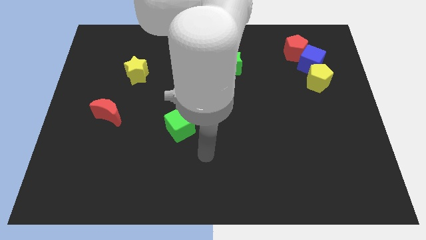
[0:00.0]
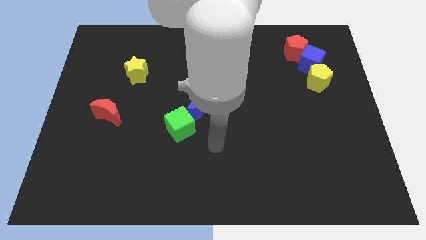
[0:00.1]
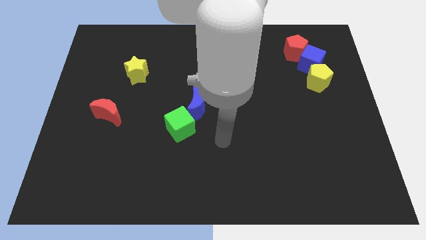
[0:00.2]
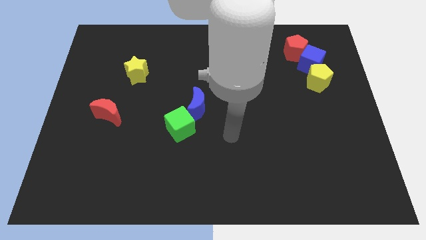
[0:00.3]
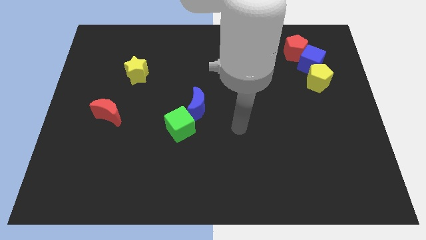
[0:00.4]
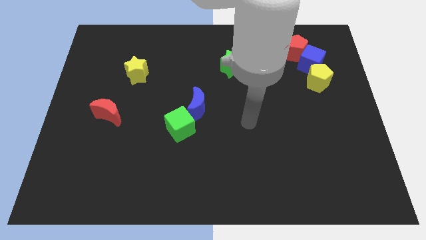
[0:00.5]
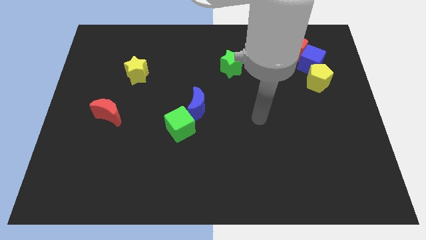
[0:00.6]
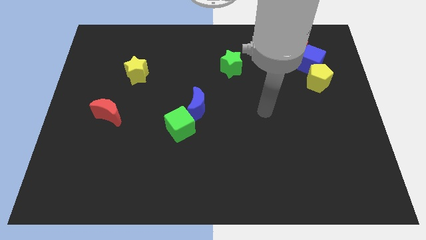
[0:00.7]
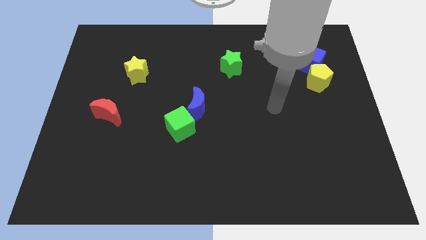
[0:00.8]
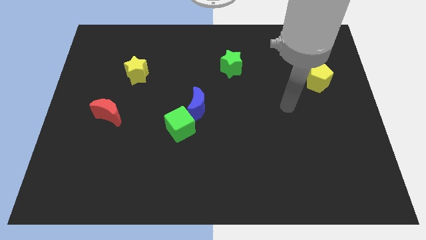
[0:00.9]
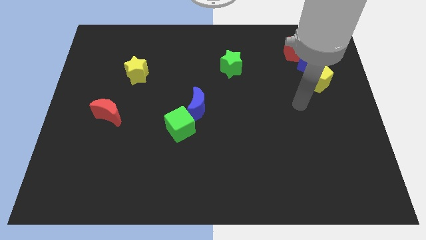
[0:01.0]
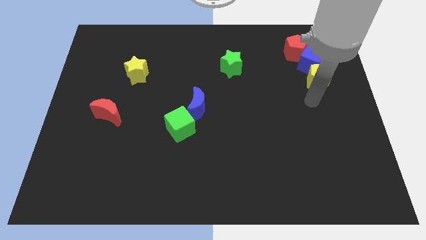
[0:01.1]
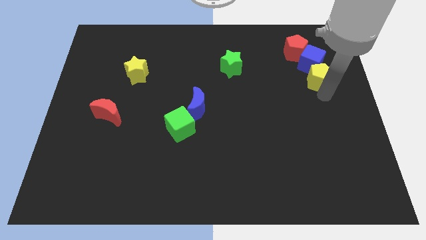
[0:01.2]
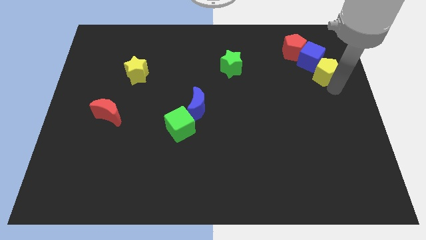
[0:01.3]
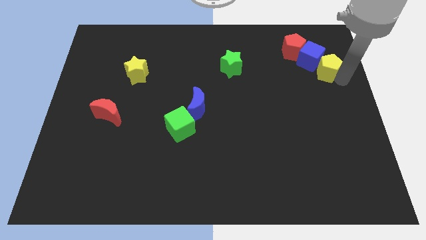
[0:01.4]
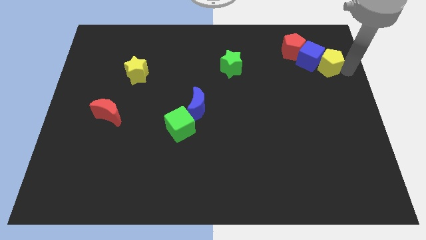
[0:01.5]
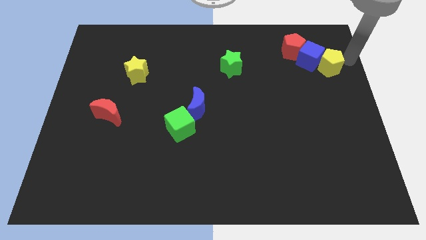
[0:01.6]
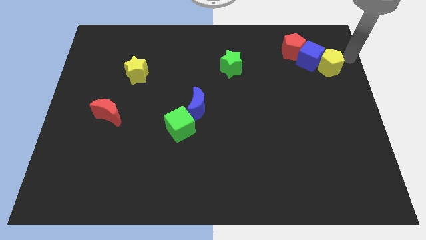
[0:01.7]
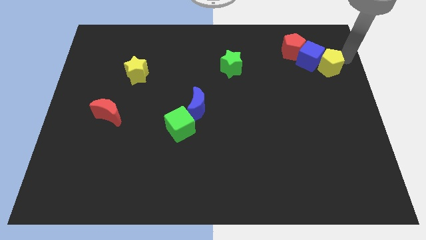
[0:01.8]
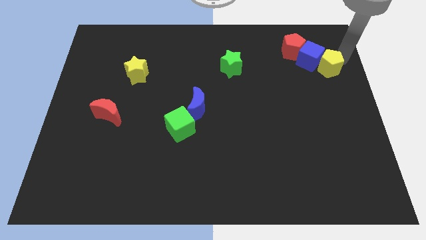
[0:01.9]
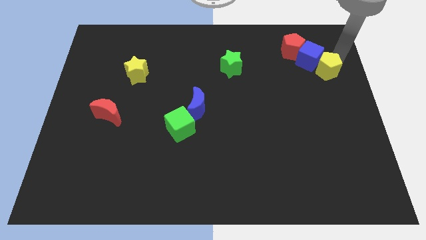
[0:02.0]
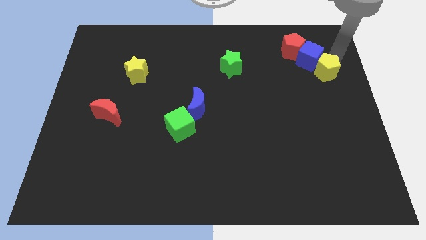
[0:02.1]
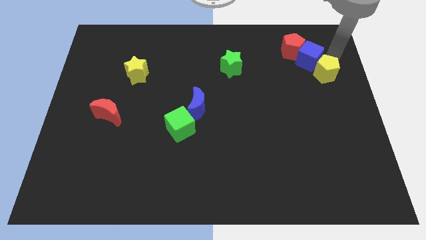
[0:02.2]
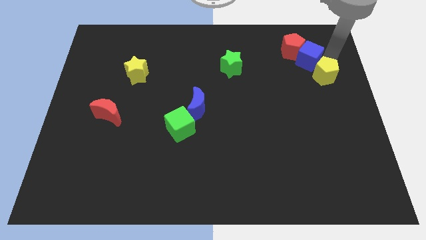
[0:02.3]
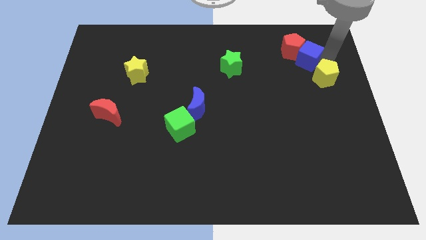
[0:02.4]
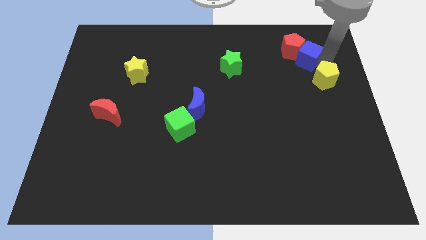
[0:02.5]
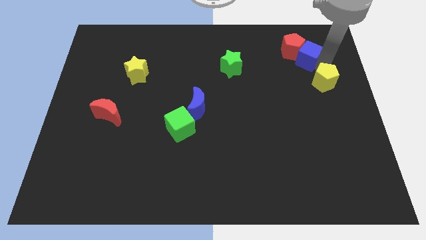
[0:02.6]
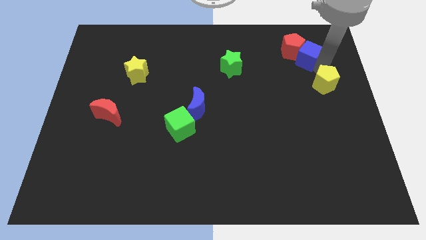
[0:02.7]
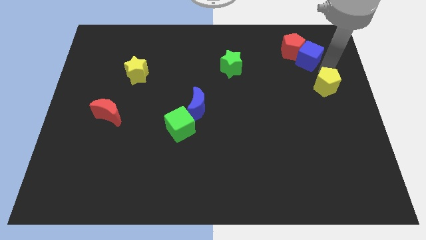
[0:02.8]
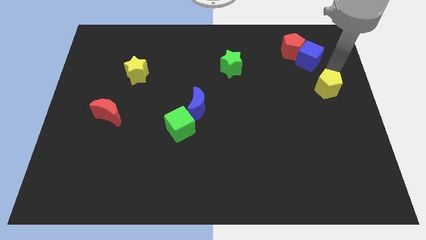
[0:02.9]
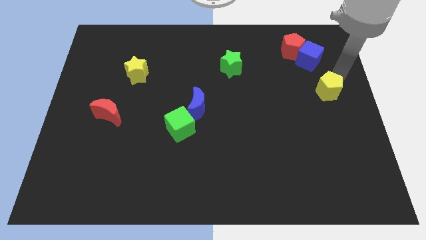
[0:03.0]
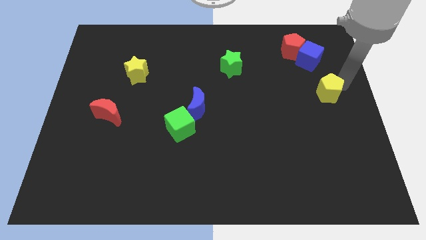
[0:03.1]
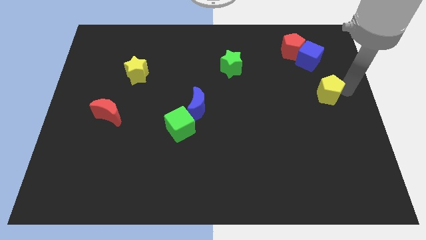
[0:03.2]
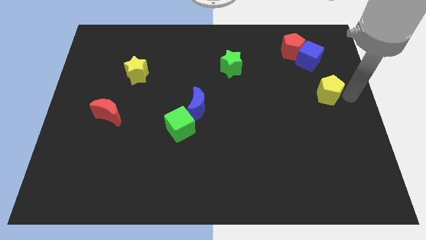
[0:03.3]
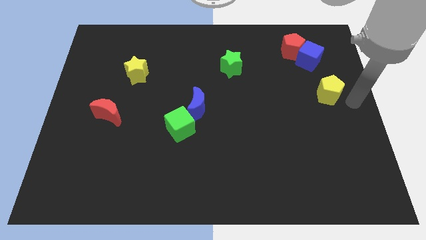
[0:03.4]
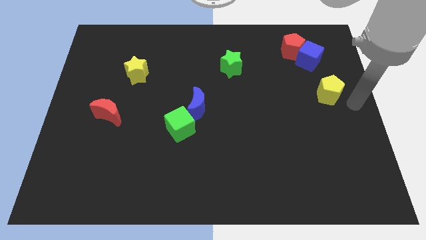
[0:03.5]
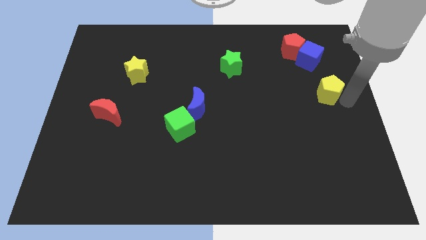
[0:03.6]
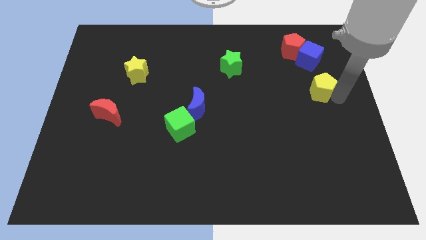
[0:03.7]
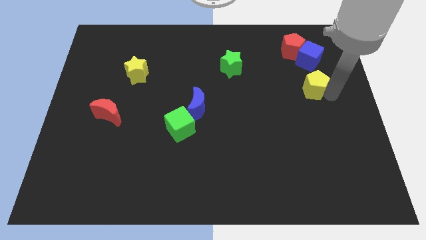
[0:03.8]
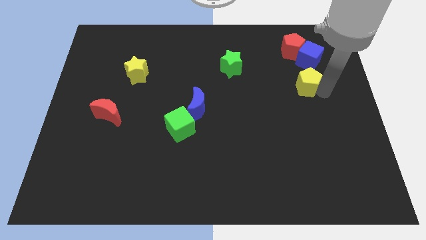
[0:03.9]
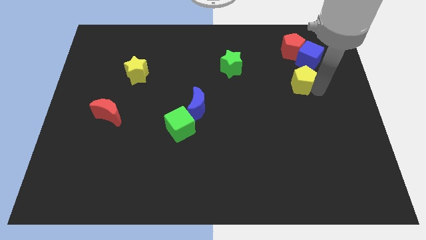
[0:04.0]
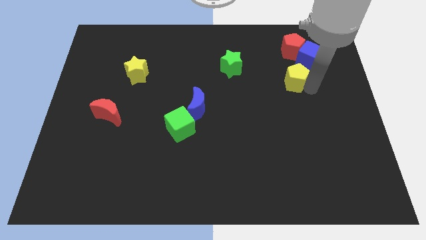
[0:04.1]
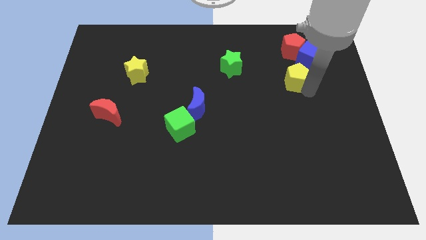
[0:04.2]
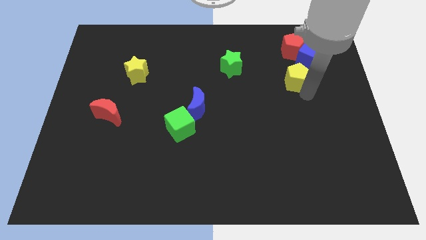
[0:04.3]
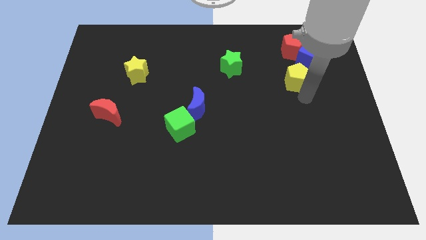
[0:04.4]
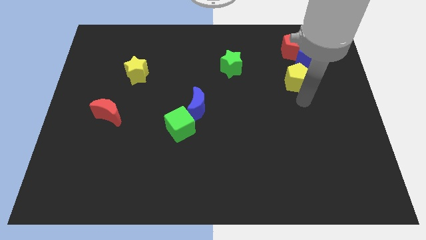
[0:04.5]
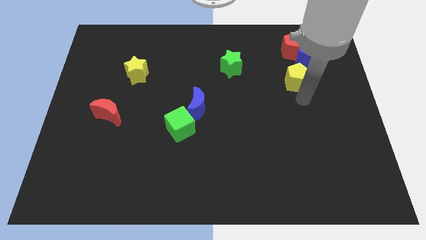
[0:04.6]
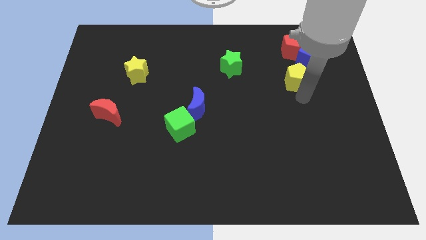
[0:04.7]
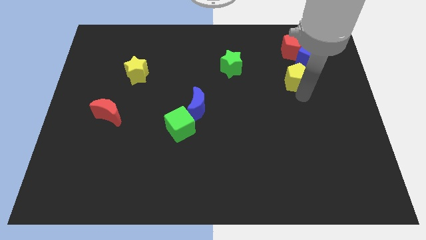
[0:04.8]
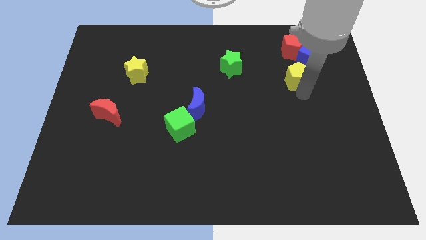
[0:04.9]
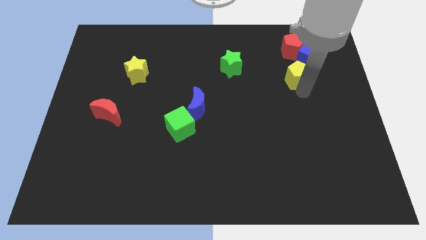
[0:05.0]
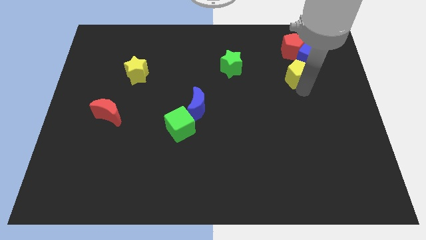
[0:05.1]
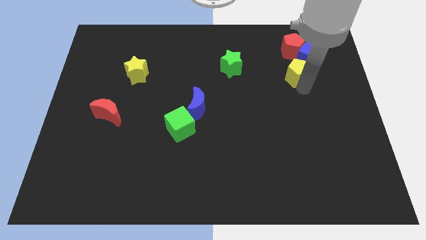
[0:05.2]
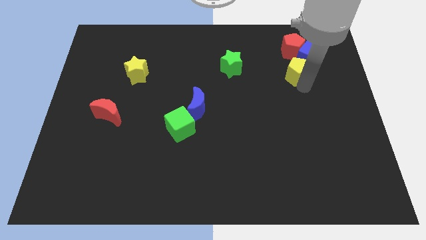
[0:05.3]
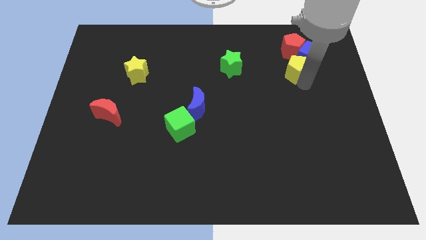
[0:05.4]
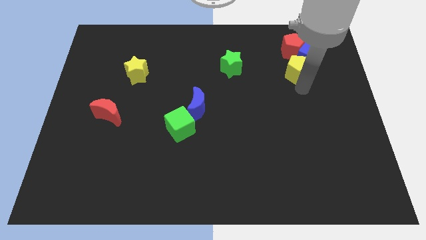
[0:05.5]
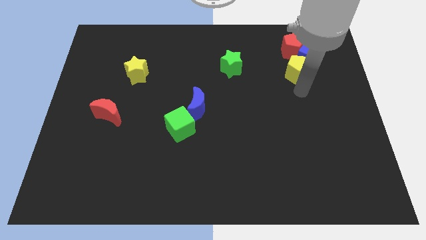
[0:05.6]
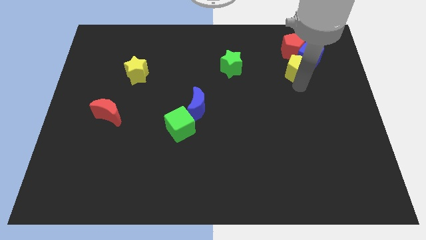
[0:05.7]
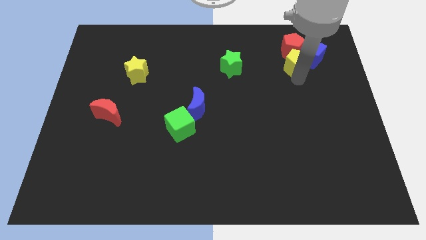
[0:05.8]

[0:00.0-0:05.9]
put the yellow pentagon close to the red pentagon

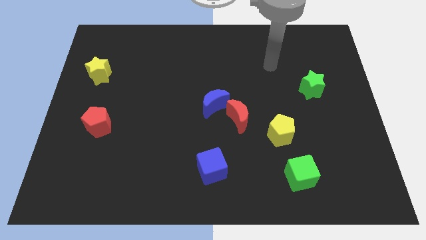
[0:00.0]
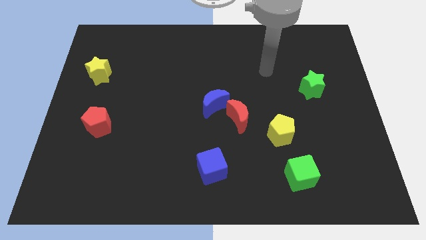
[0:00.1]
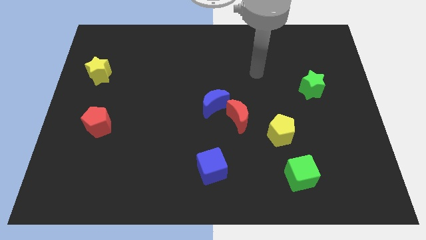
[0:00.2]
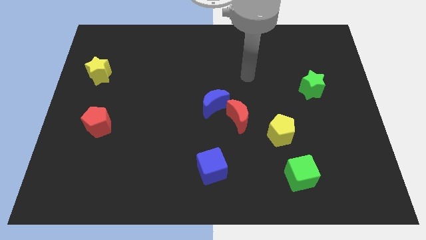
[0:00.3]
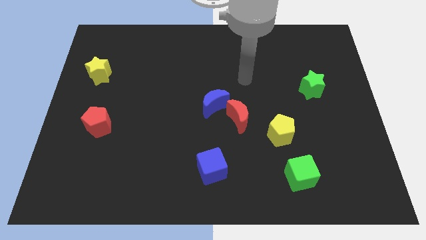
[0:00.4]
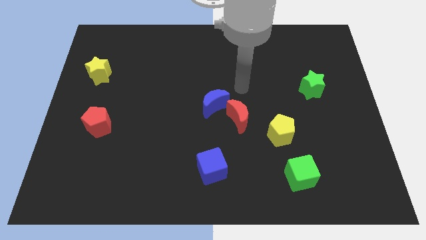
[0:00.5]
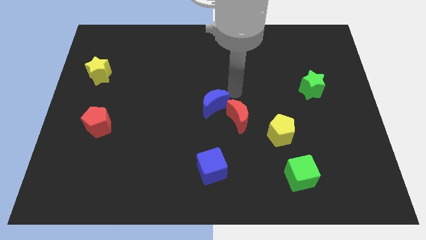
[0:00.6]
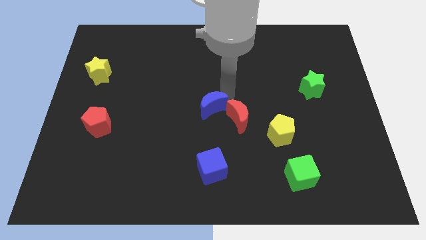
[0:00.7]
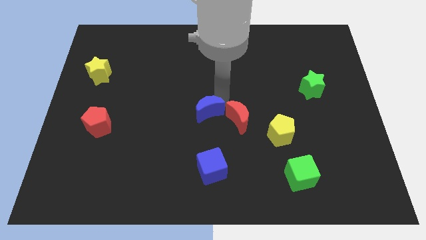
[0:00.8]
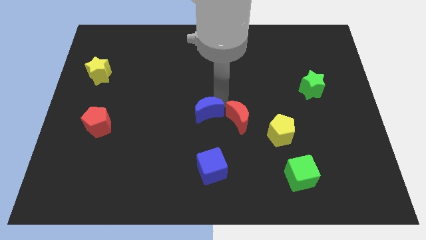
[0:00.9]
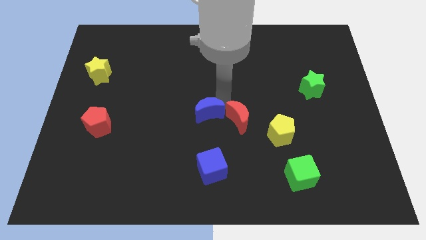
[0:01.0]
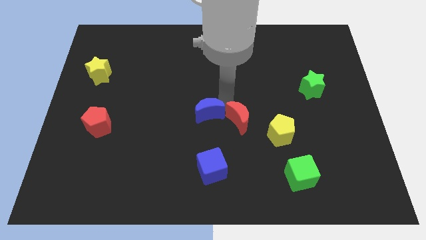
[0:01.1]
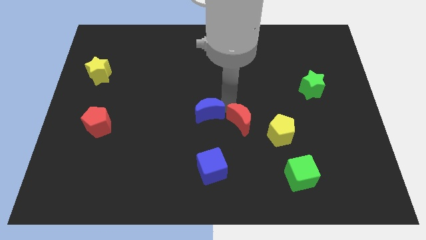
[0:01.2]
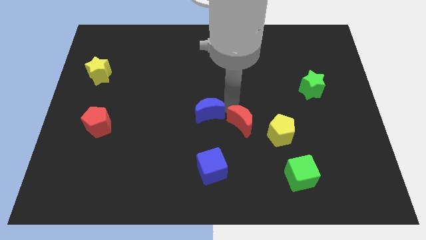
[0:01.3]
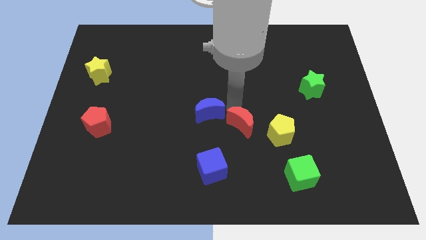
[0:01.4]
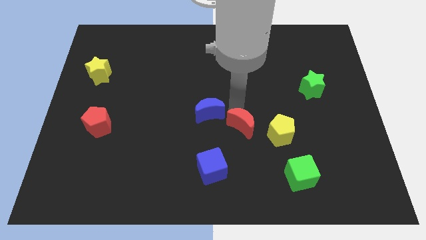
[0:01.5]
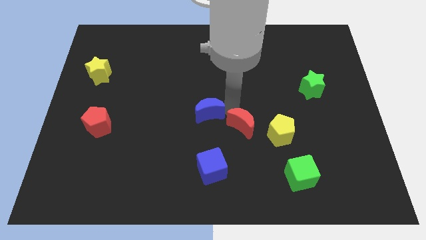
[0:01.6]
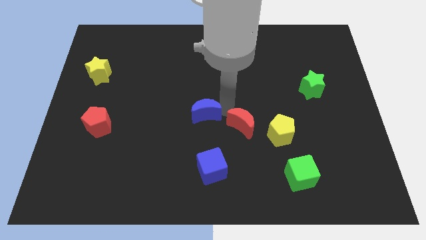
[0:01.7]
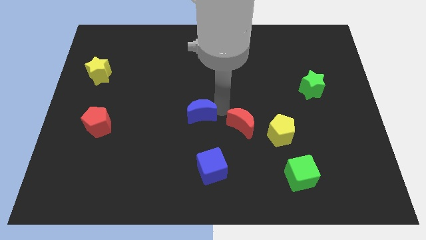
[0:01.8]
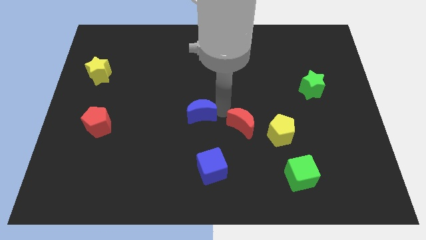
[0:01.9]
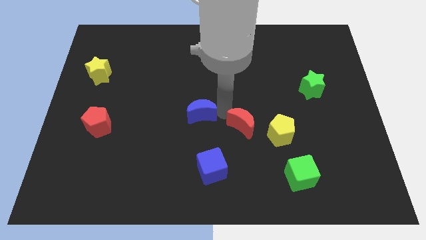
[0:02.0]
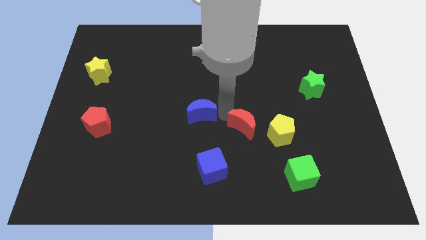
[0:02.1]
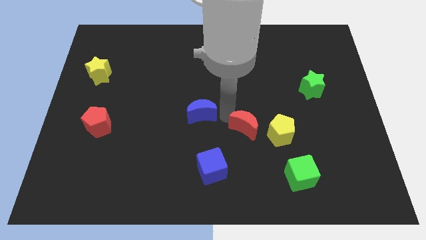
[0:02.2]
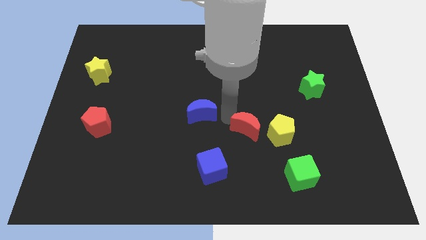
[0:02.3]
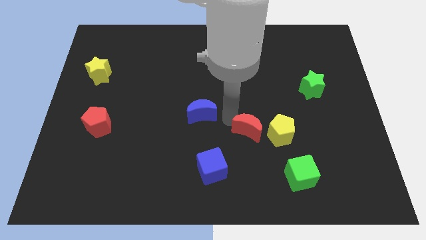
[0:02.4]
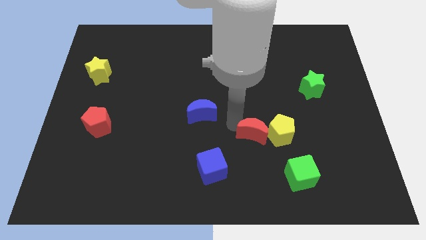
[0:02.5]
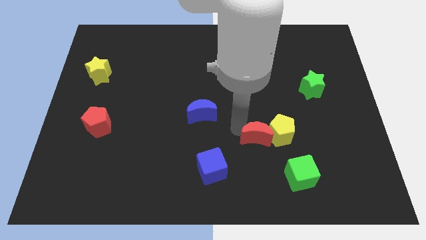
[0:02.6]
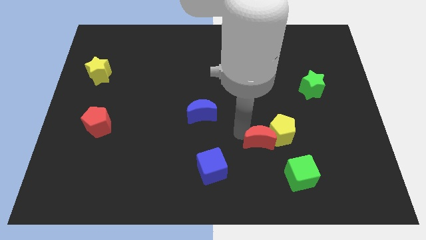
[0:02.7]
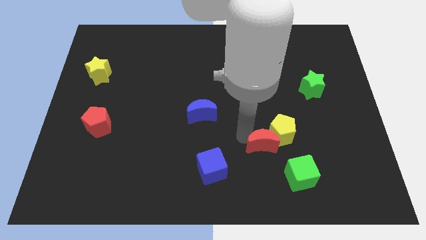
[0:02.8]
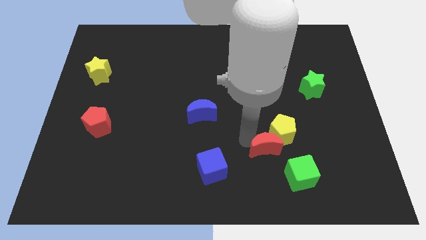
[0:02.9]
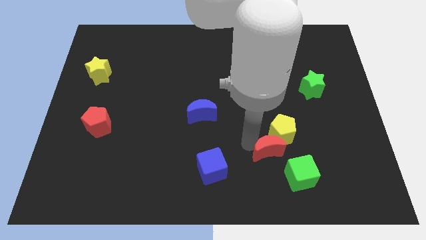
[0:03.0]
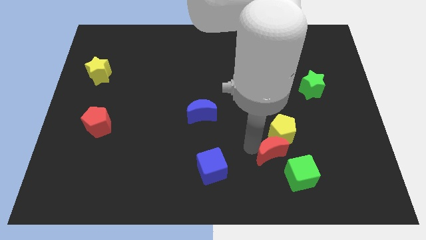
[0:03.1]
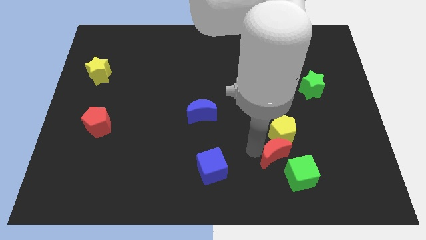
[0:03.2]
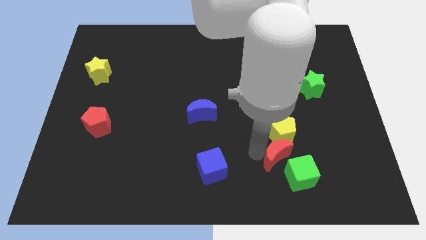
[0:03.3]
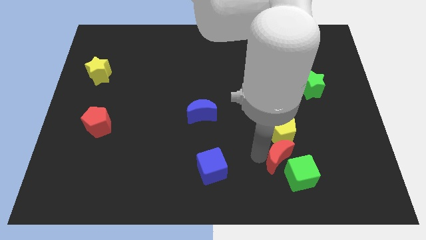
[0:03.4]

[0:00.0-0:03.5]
push the red moon next to the green cube
